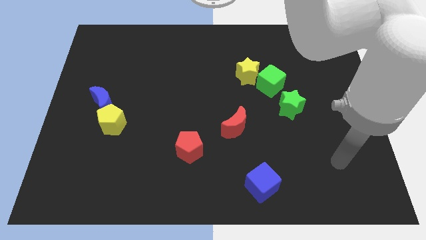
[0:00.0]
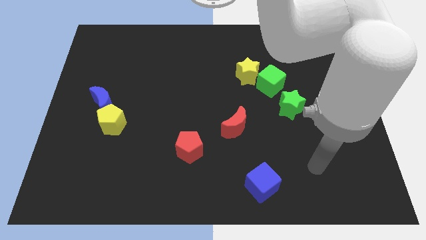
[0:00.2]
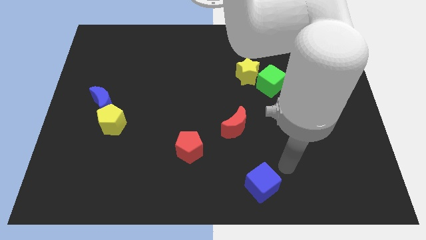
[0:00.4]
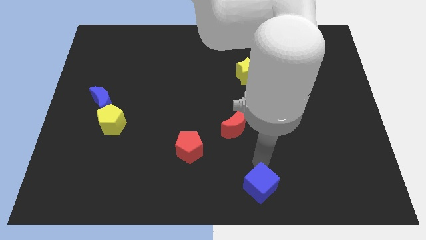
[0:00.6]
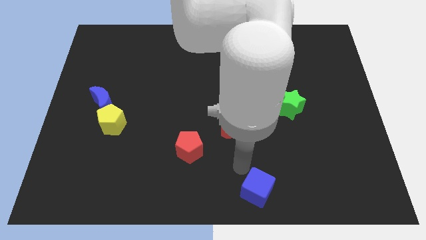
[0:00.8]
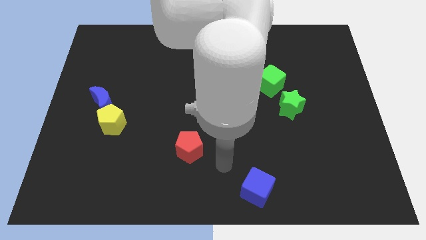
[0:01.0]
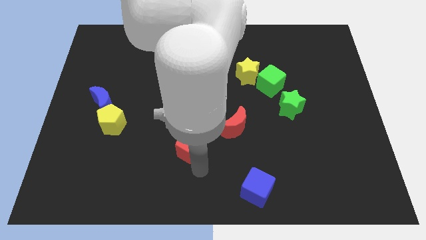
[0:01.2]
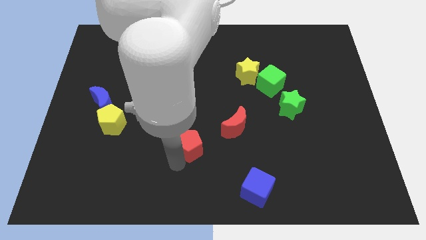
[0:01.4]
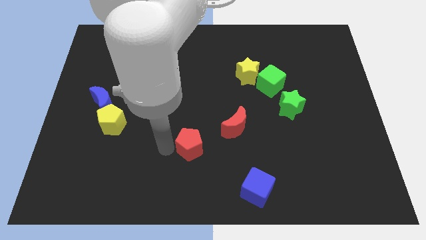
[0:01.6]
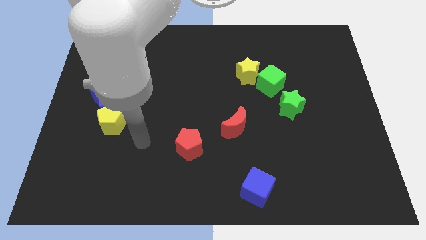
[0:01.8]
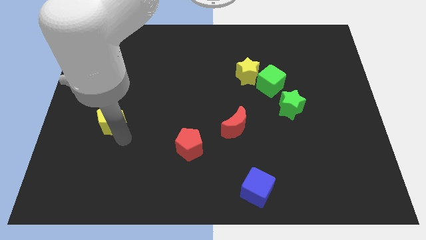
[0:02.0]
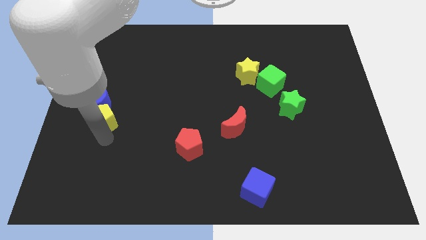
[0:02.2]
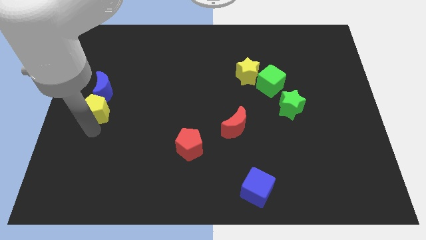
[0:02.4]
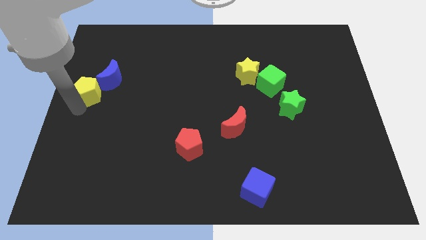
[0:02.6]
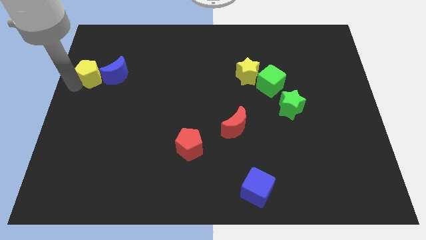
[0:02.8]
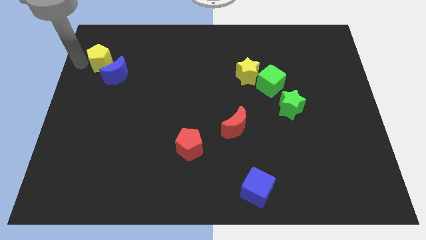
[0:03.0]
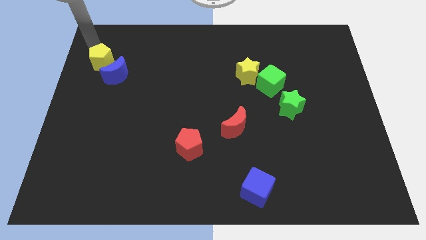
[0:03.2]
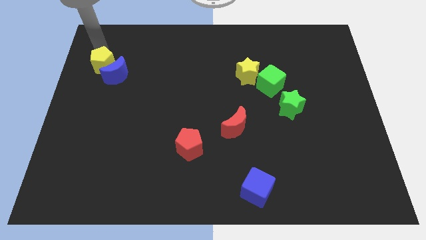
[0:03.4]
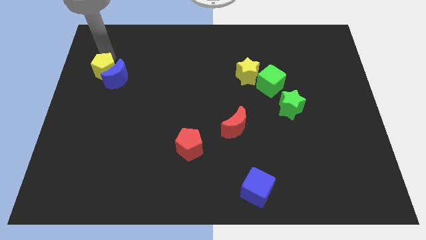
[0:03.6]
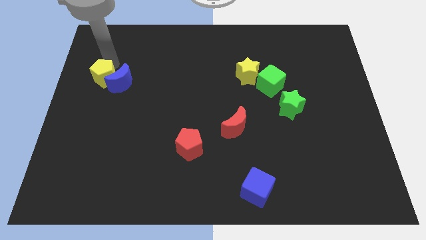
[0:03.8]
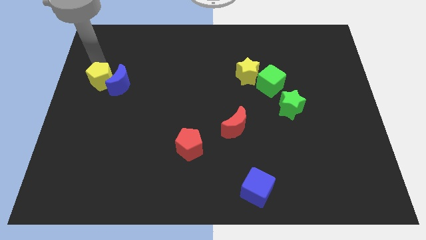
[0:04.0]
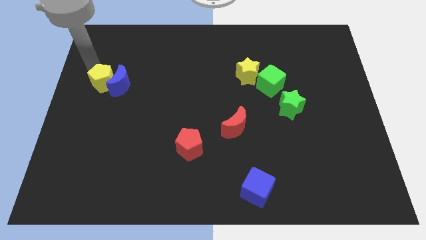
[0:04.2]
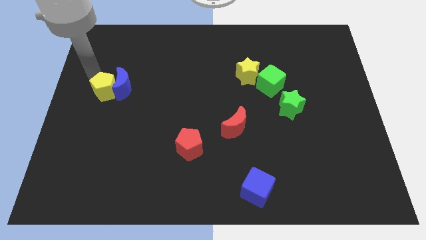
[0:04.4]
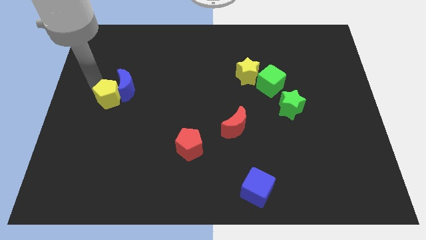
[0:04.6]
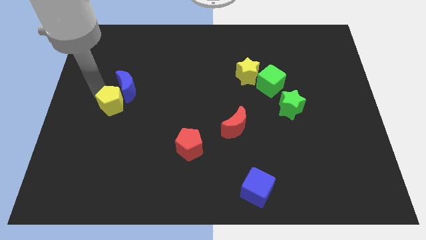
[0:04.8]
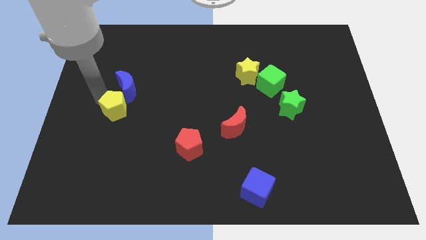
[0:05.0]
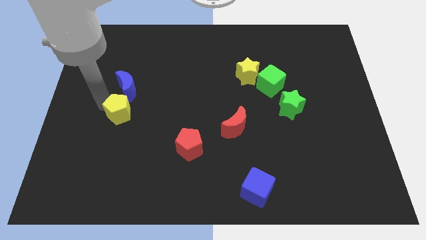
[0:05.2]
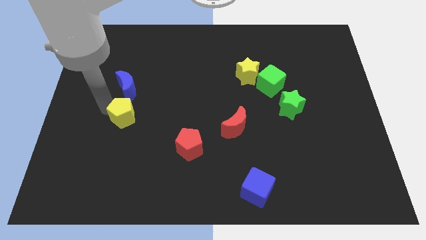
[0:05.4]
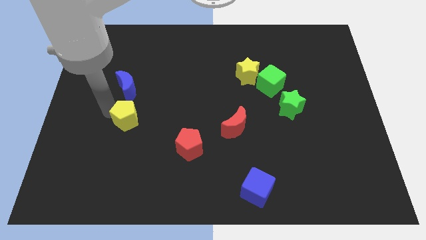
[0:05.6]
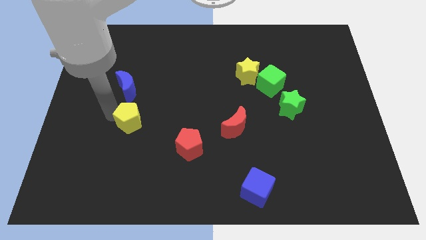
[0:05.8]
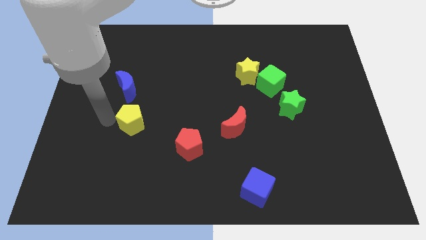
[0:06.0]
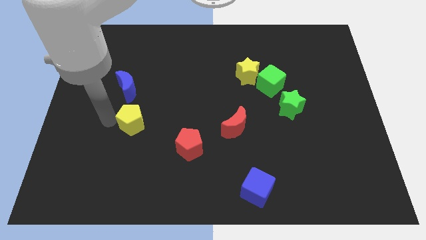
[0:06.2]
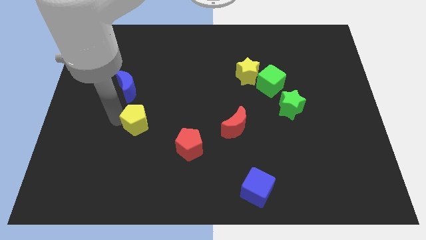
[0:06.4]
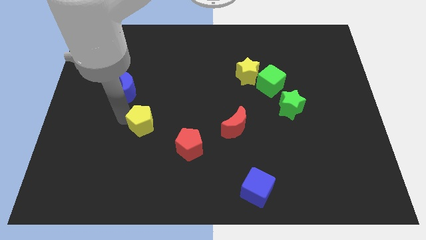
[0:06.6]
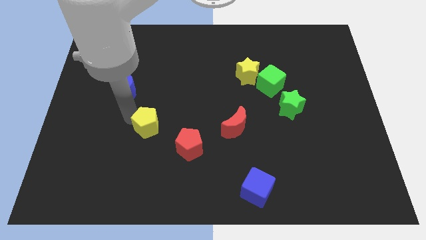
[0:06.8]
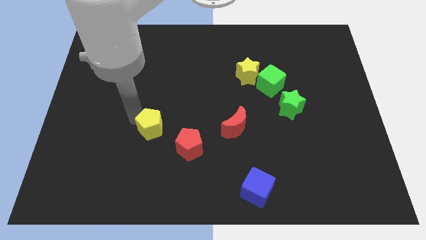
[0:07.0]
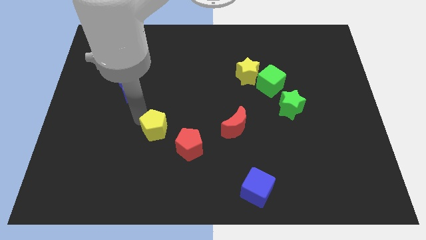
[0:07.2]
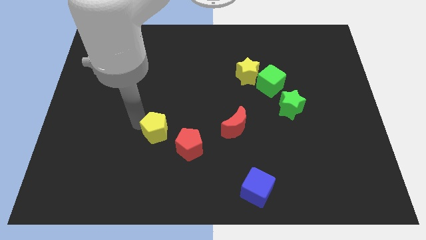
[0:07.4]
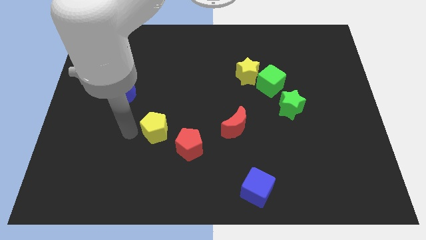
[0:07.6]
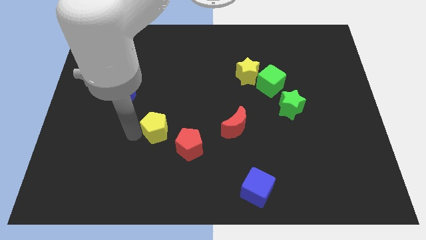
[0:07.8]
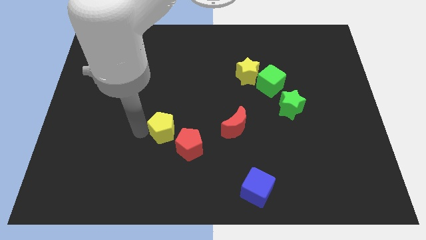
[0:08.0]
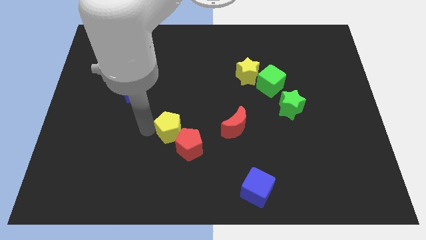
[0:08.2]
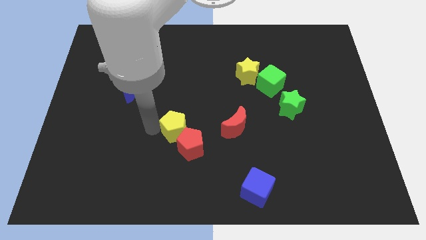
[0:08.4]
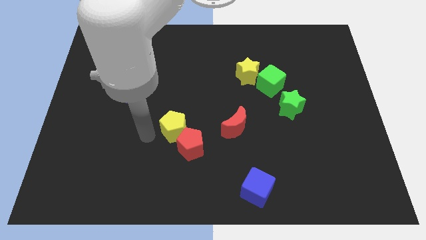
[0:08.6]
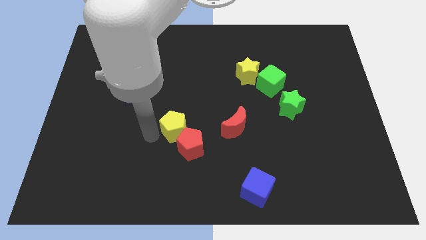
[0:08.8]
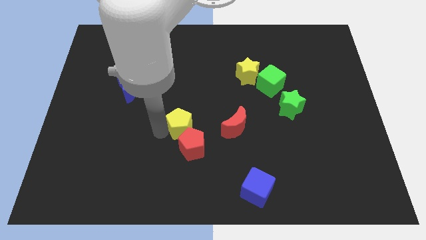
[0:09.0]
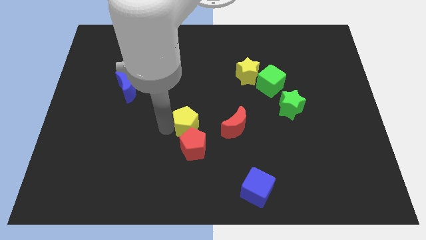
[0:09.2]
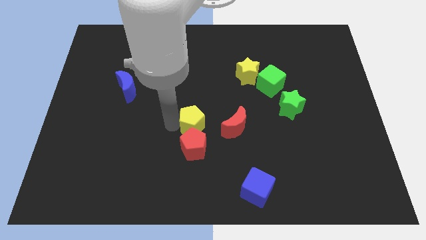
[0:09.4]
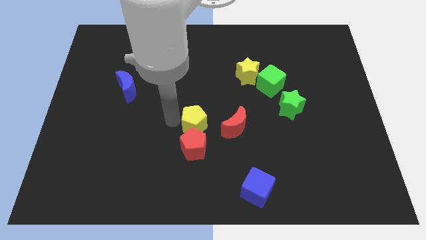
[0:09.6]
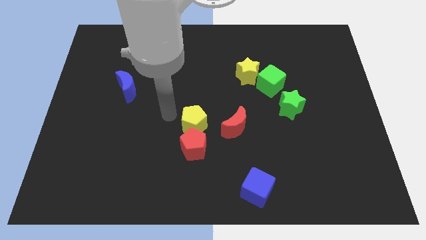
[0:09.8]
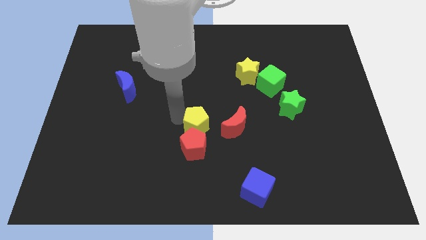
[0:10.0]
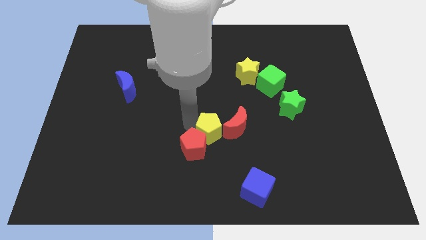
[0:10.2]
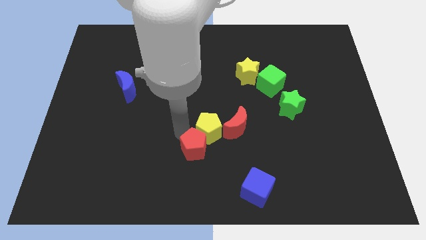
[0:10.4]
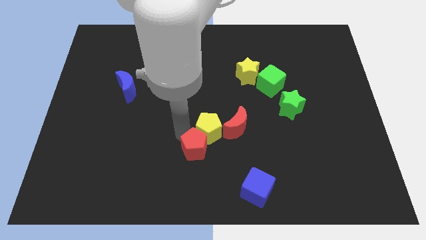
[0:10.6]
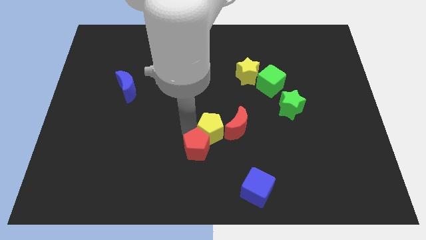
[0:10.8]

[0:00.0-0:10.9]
push the yellow pentagon close to the red moon

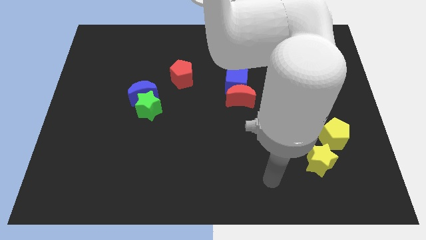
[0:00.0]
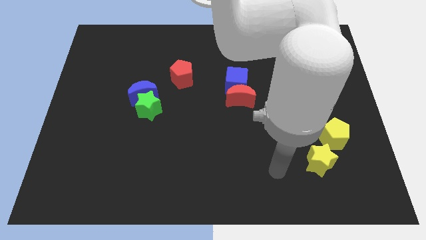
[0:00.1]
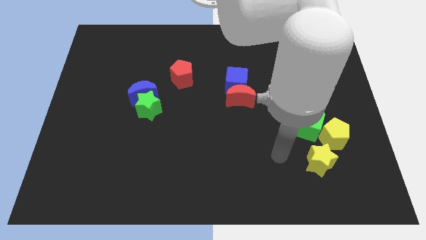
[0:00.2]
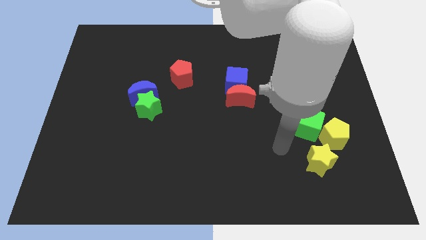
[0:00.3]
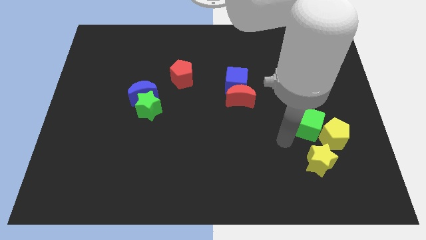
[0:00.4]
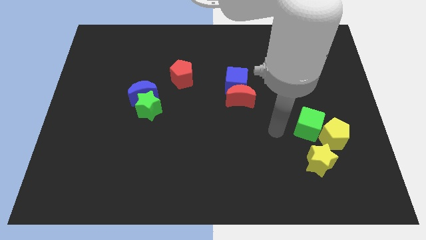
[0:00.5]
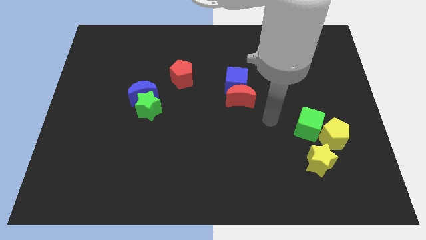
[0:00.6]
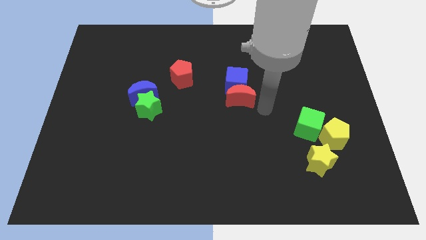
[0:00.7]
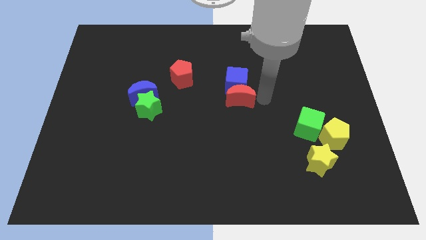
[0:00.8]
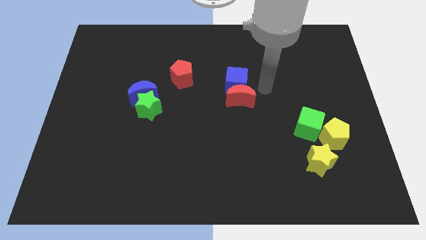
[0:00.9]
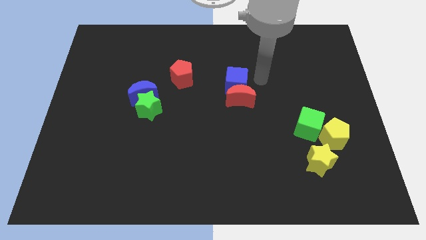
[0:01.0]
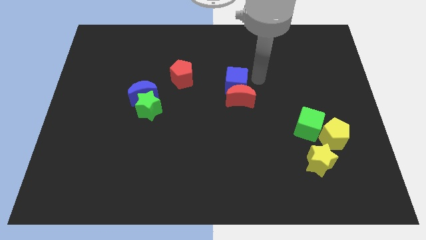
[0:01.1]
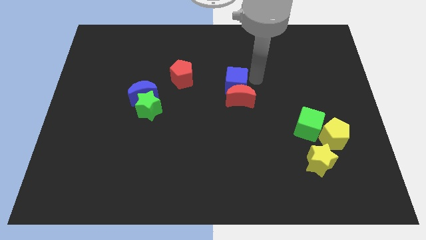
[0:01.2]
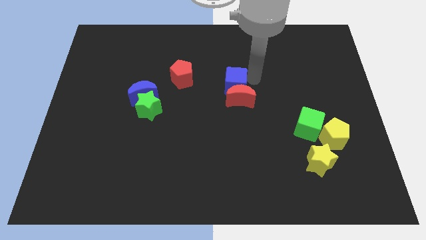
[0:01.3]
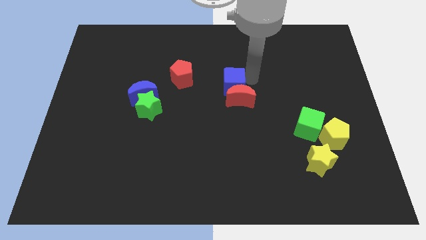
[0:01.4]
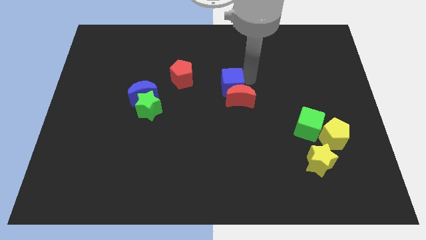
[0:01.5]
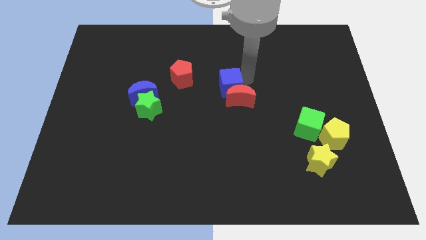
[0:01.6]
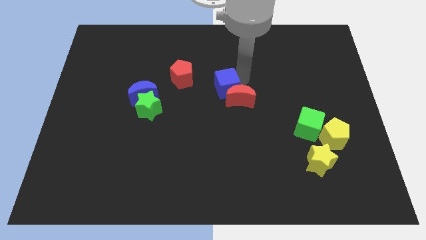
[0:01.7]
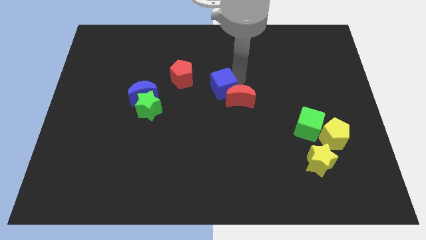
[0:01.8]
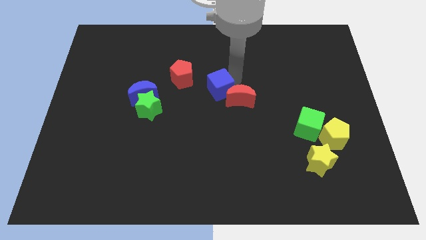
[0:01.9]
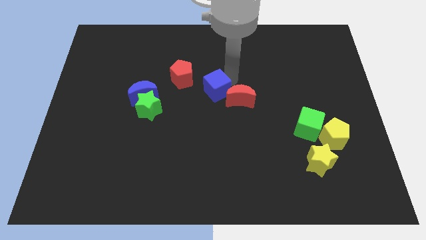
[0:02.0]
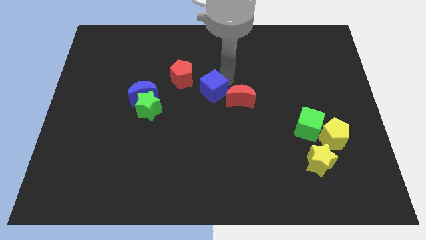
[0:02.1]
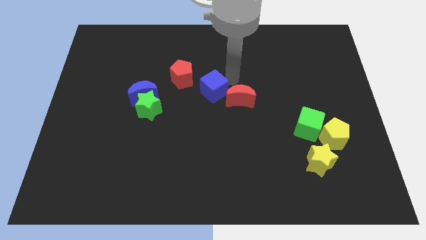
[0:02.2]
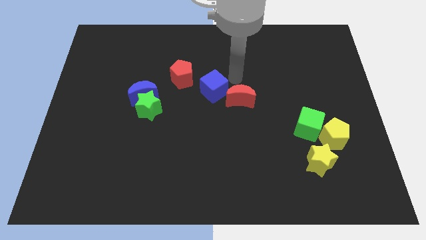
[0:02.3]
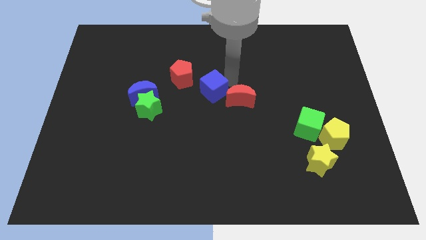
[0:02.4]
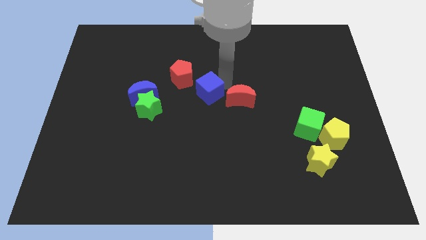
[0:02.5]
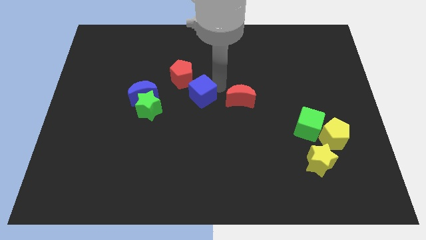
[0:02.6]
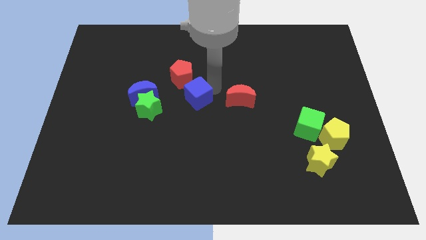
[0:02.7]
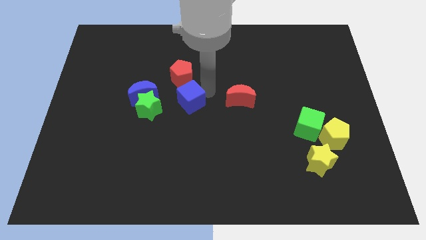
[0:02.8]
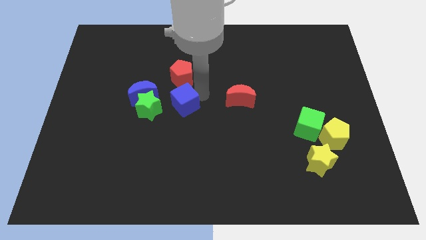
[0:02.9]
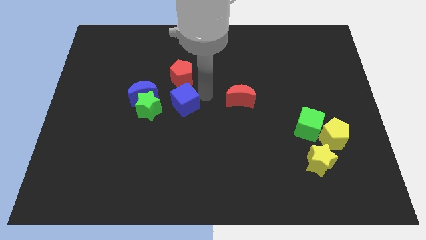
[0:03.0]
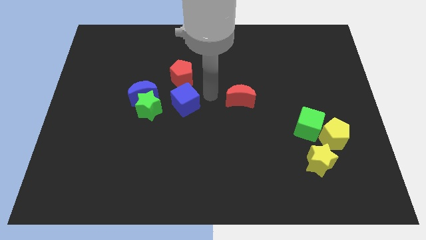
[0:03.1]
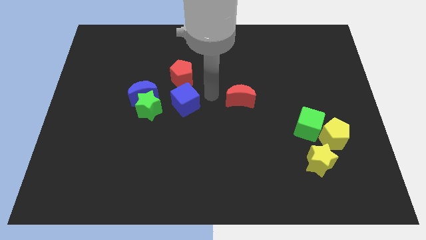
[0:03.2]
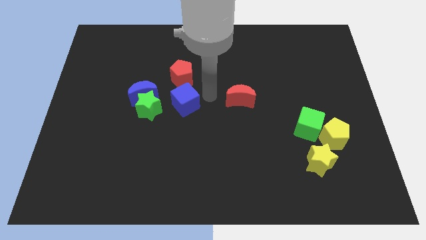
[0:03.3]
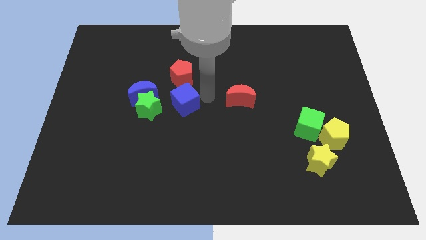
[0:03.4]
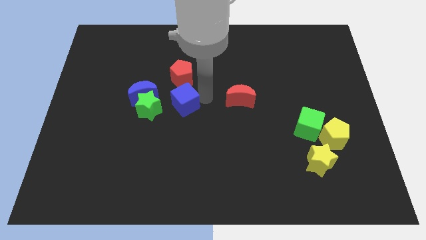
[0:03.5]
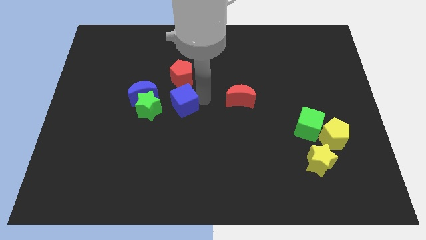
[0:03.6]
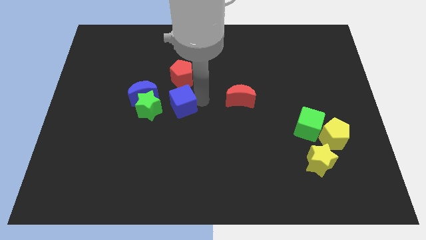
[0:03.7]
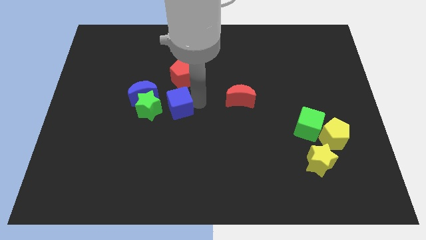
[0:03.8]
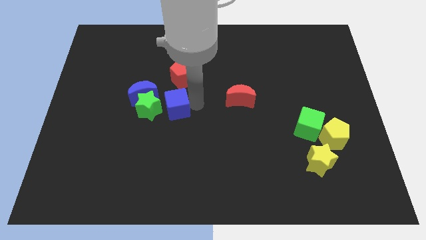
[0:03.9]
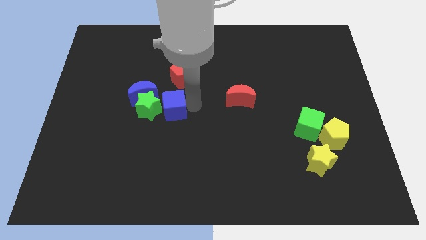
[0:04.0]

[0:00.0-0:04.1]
move the blue cube towards the green star
